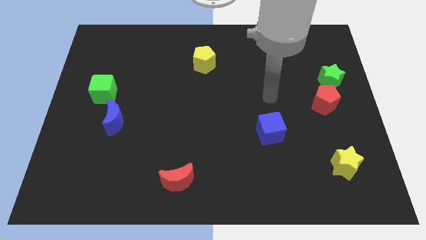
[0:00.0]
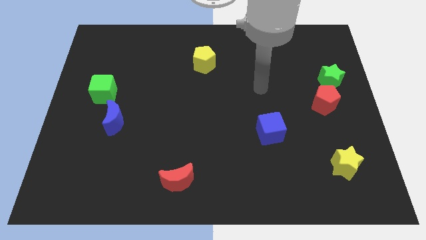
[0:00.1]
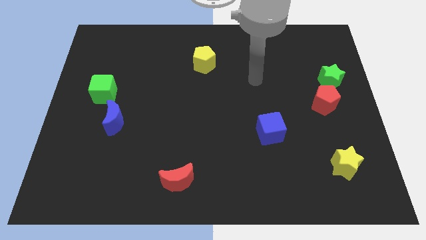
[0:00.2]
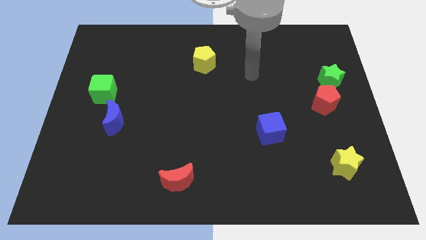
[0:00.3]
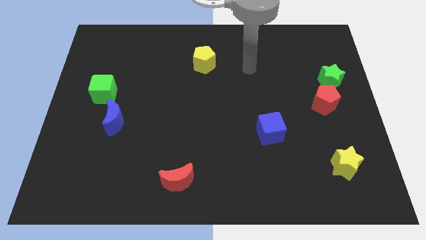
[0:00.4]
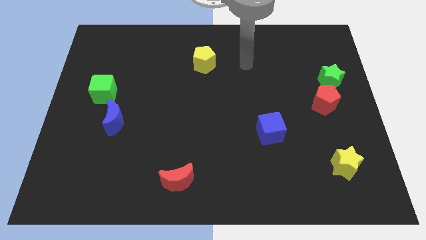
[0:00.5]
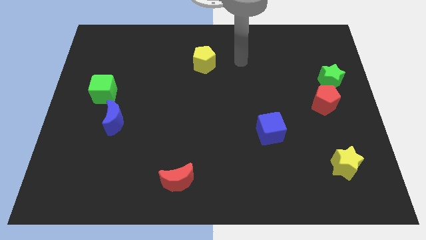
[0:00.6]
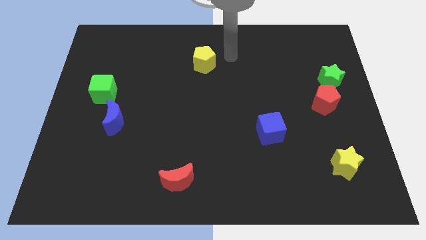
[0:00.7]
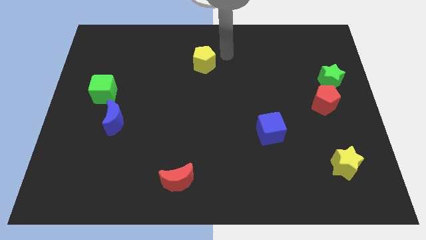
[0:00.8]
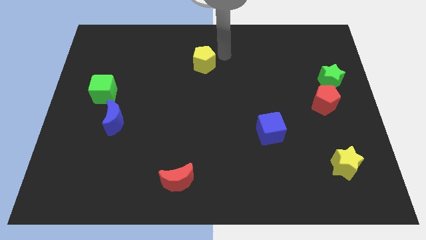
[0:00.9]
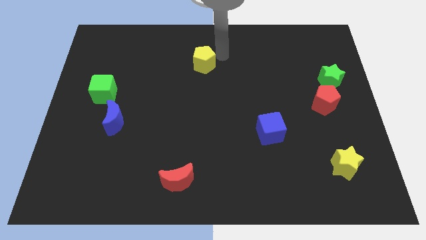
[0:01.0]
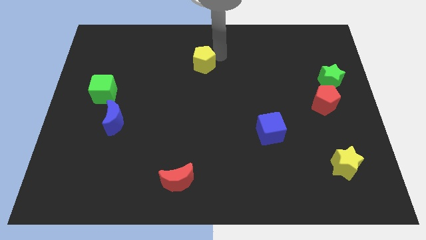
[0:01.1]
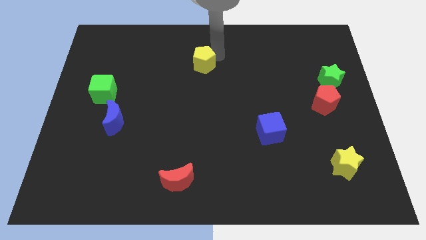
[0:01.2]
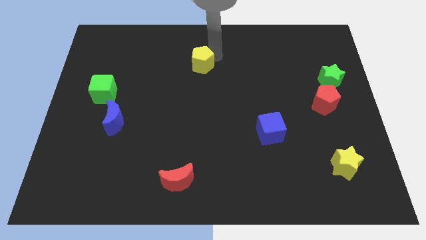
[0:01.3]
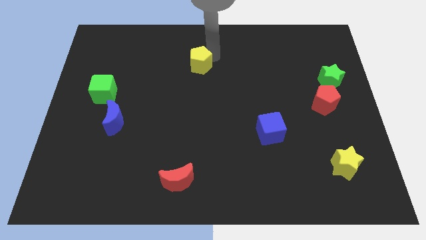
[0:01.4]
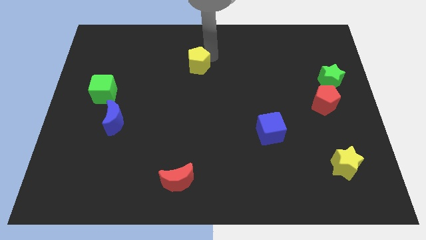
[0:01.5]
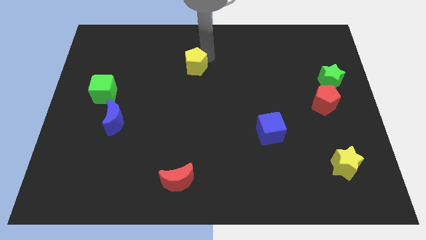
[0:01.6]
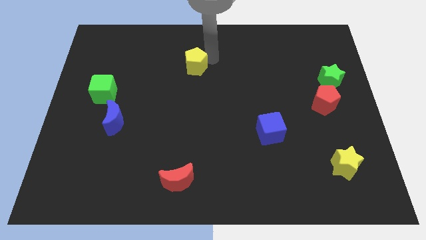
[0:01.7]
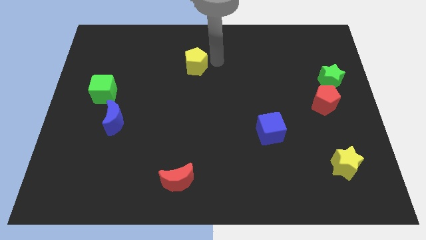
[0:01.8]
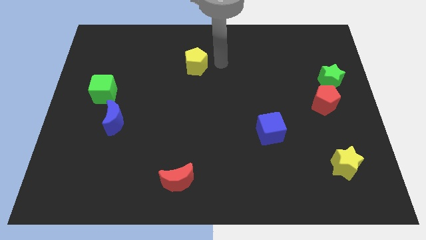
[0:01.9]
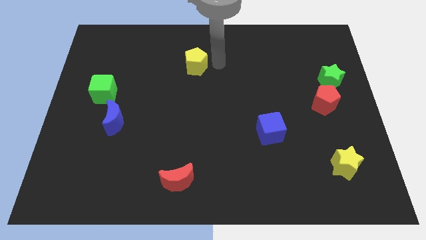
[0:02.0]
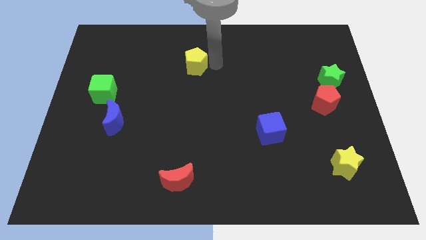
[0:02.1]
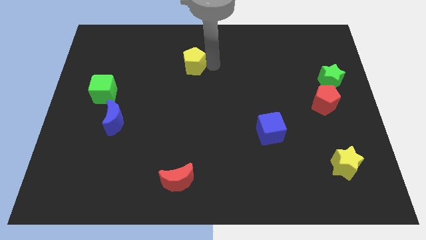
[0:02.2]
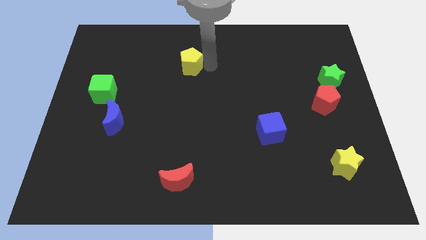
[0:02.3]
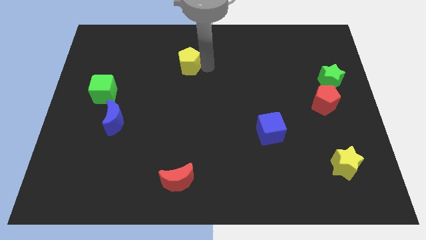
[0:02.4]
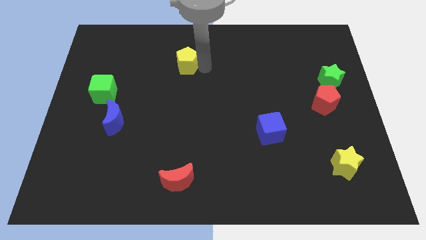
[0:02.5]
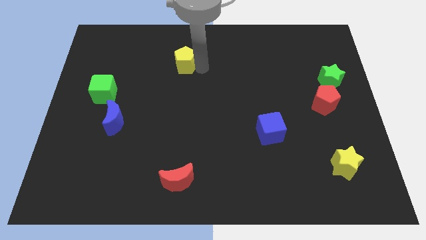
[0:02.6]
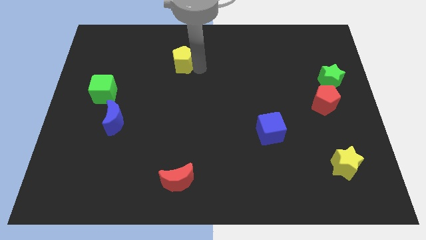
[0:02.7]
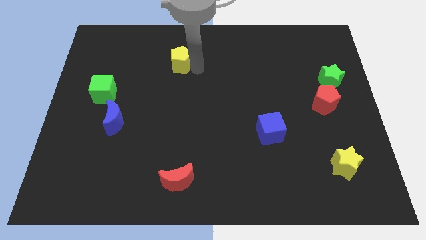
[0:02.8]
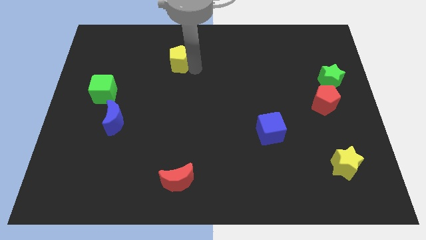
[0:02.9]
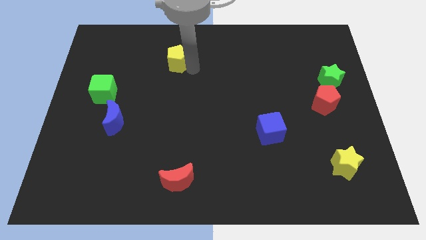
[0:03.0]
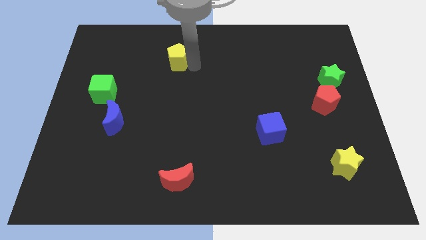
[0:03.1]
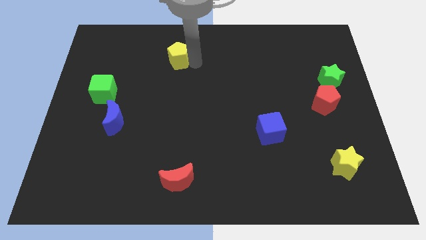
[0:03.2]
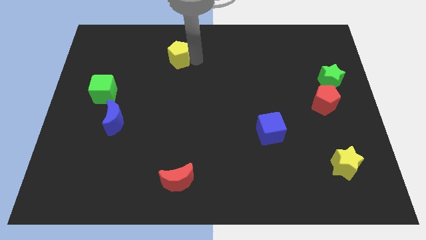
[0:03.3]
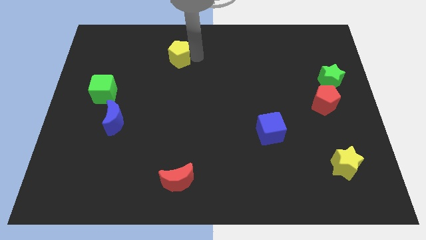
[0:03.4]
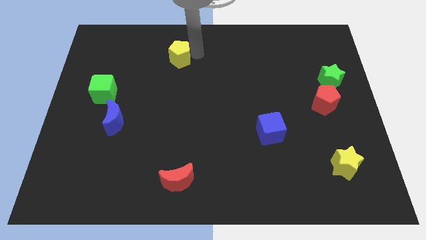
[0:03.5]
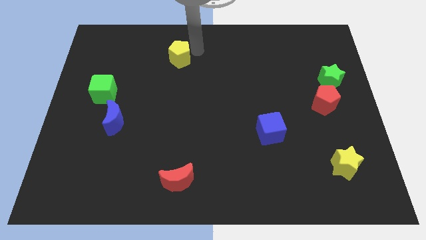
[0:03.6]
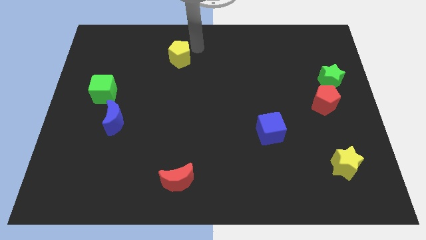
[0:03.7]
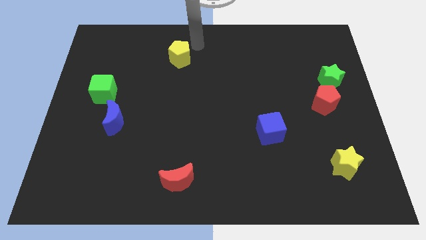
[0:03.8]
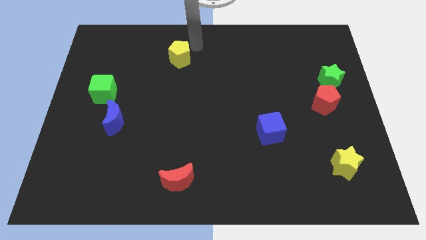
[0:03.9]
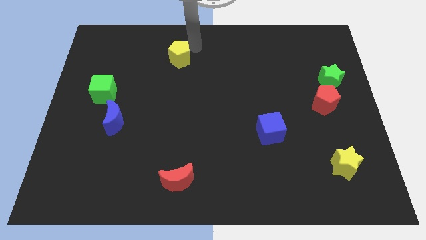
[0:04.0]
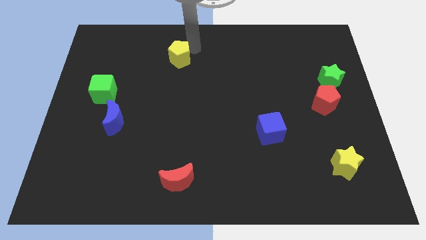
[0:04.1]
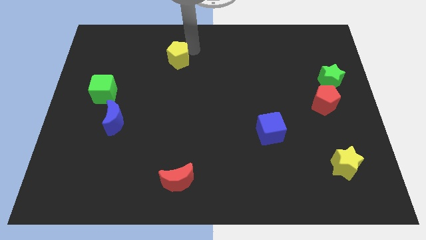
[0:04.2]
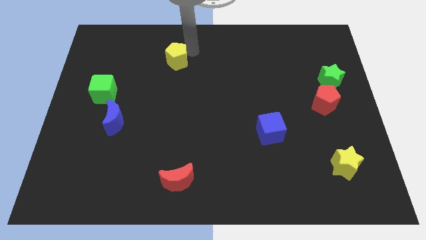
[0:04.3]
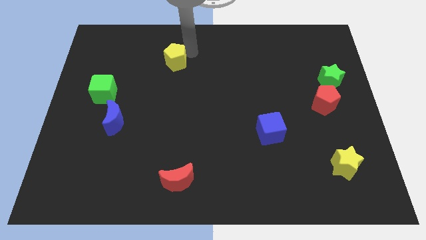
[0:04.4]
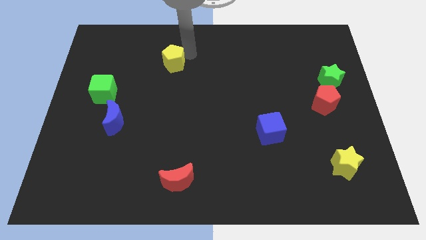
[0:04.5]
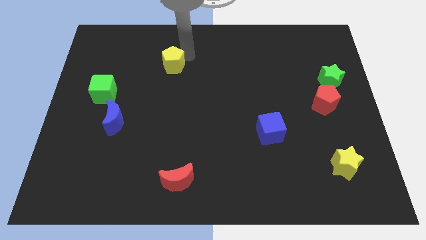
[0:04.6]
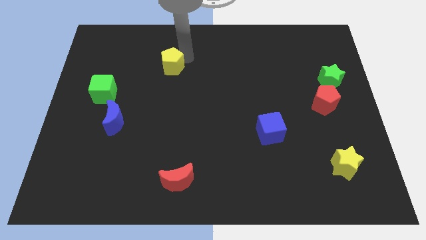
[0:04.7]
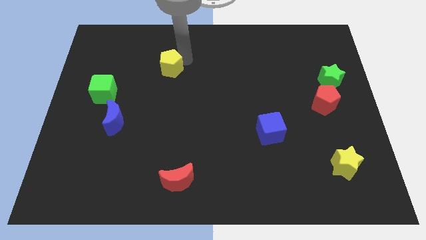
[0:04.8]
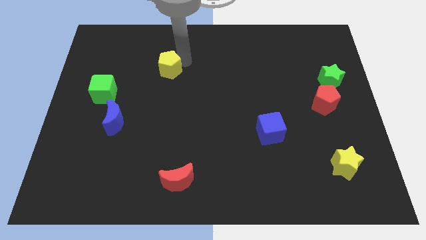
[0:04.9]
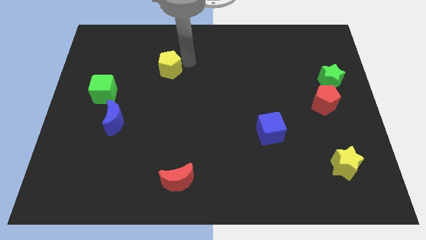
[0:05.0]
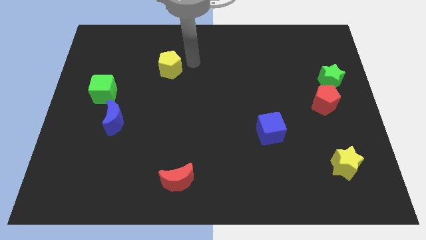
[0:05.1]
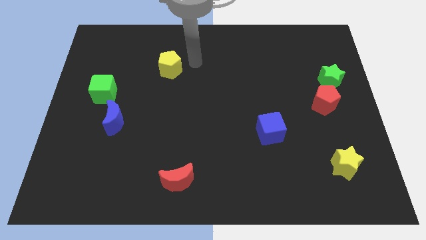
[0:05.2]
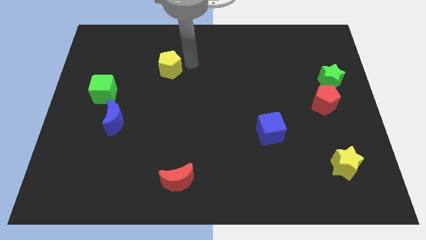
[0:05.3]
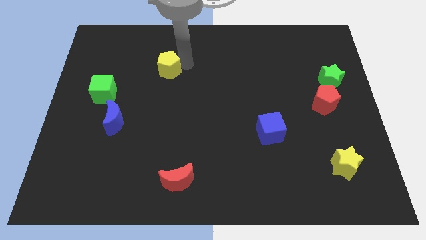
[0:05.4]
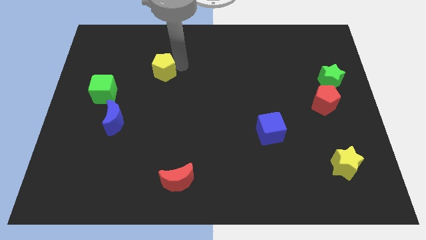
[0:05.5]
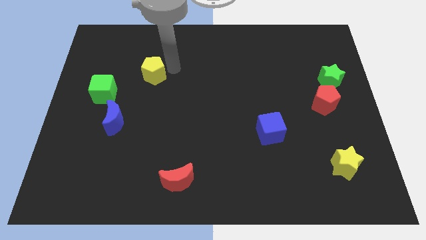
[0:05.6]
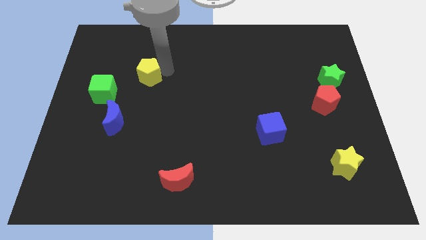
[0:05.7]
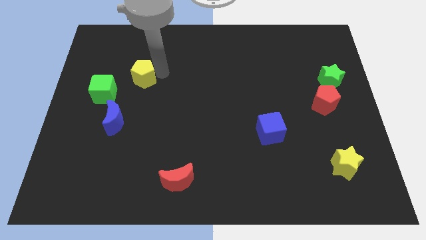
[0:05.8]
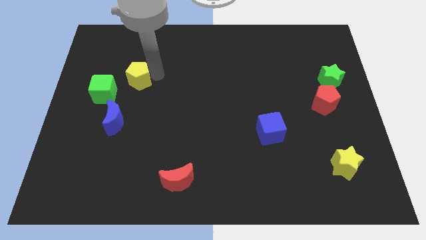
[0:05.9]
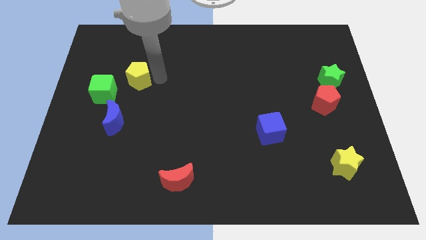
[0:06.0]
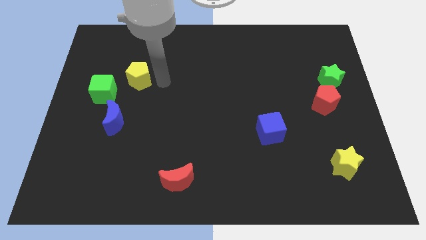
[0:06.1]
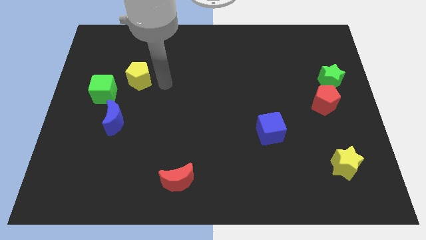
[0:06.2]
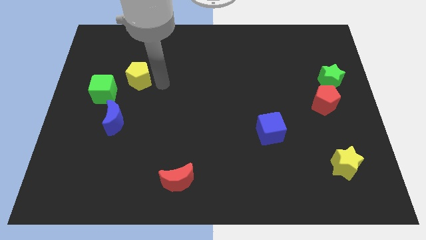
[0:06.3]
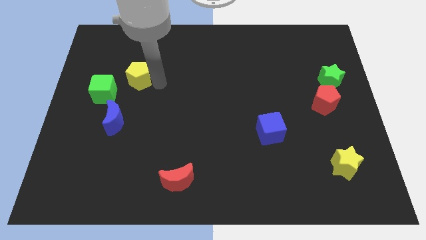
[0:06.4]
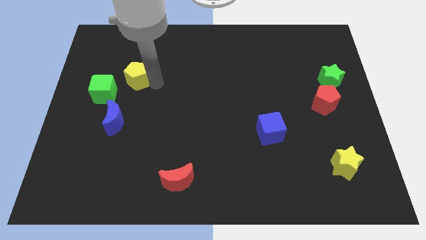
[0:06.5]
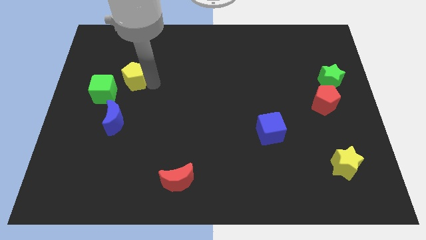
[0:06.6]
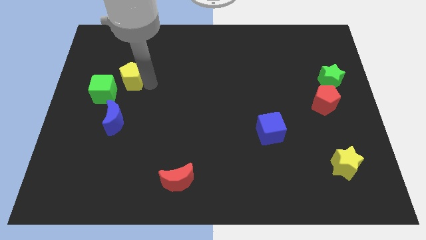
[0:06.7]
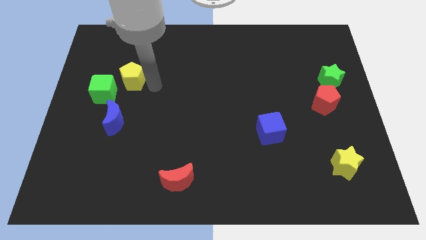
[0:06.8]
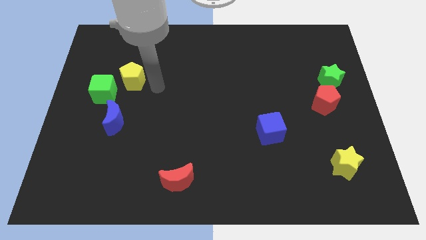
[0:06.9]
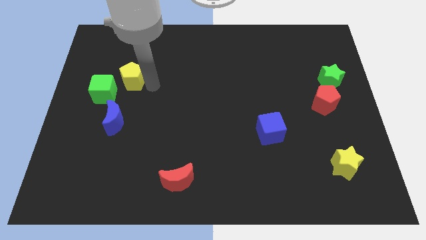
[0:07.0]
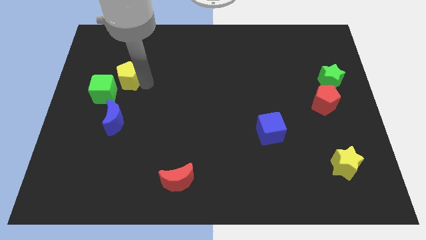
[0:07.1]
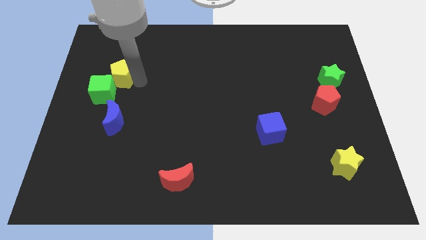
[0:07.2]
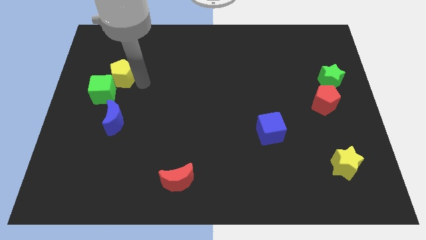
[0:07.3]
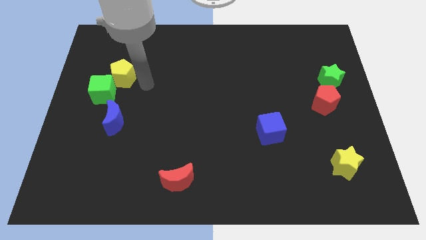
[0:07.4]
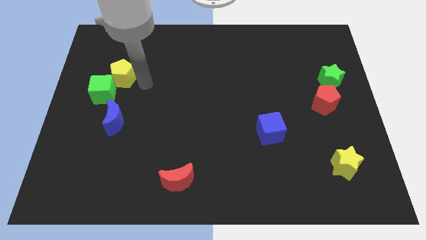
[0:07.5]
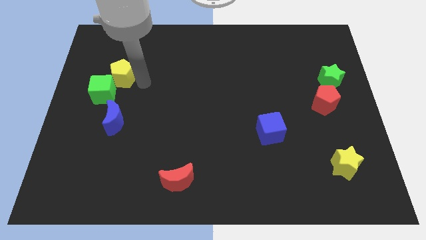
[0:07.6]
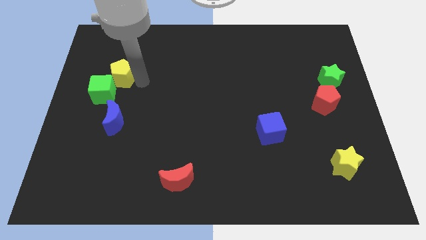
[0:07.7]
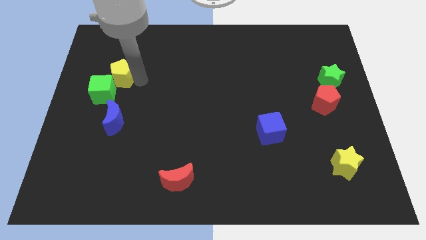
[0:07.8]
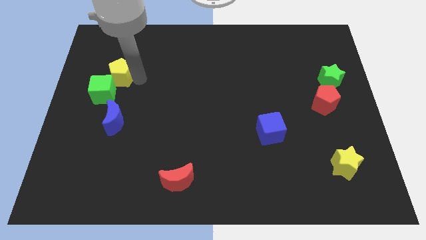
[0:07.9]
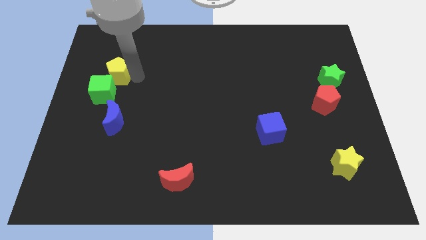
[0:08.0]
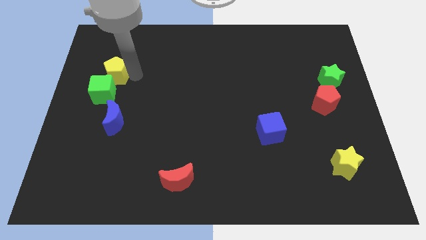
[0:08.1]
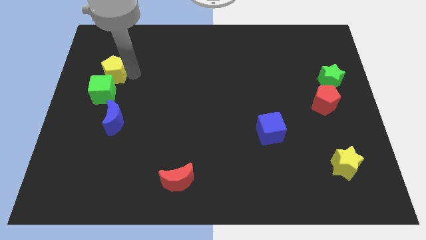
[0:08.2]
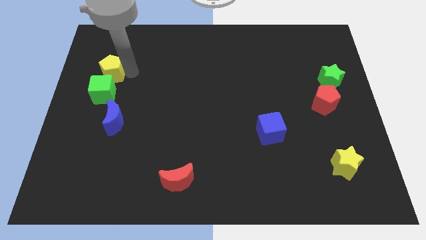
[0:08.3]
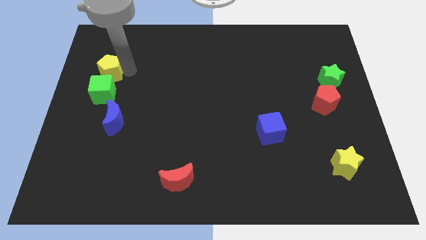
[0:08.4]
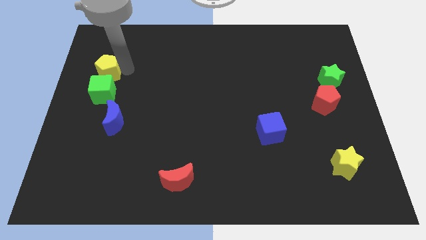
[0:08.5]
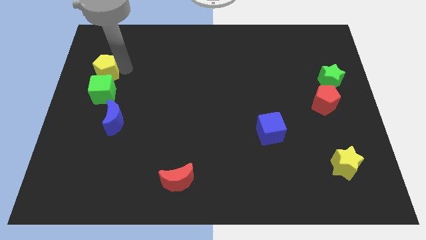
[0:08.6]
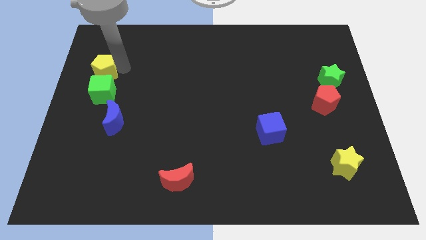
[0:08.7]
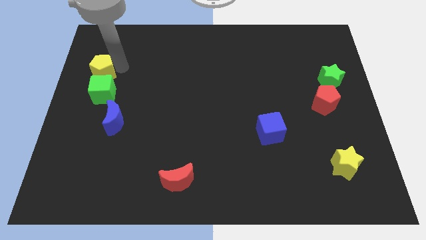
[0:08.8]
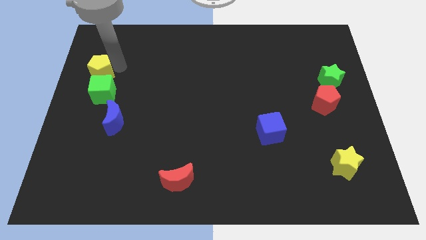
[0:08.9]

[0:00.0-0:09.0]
slide the yellow pentagon to the left side
